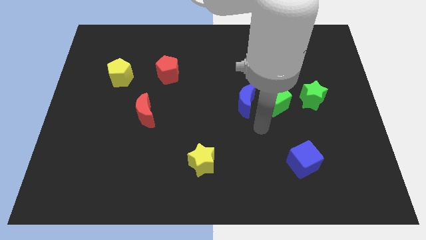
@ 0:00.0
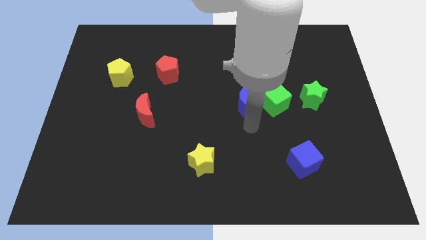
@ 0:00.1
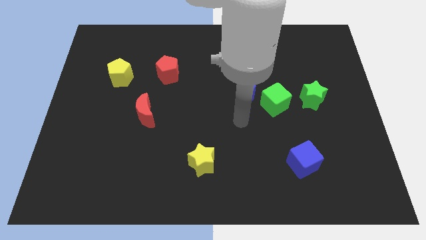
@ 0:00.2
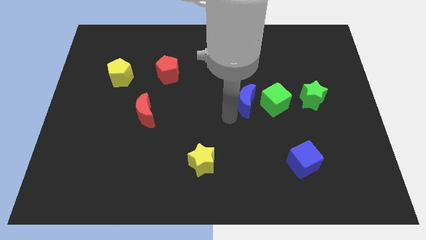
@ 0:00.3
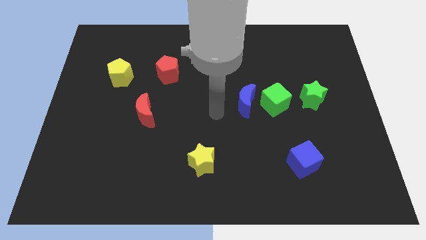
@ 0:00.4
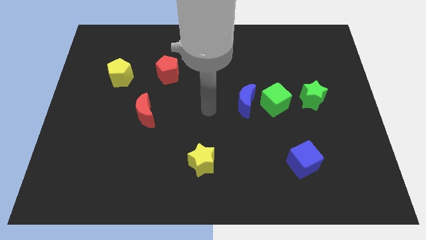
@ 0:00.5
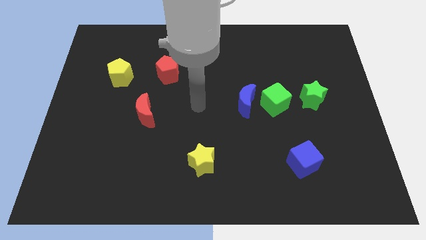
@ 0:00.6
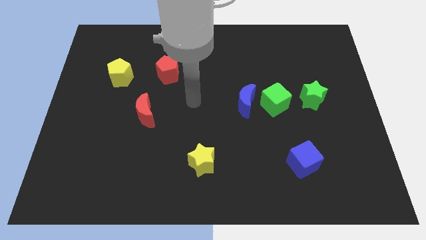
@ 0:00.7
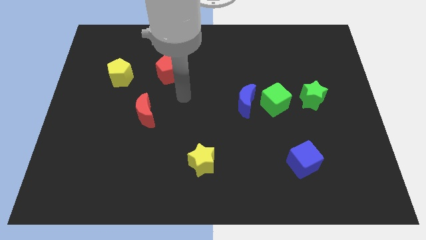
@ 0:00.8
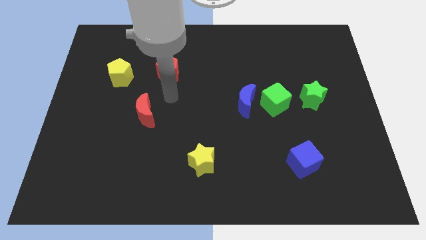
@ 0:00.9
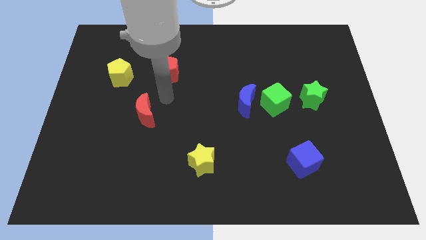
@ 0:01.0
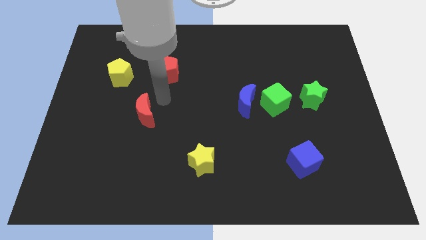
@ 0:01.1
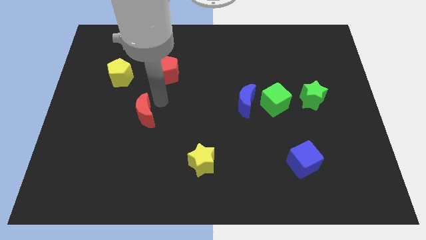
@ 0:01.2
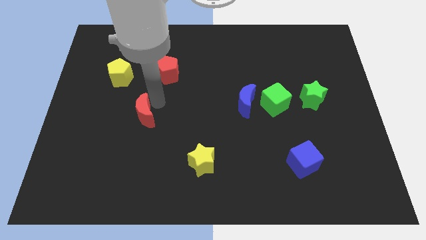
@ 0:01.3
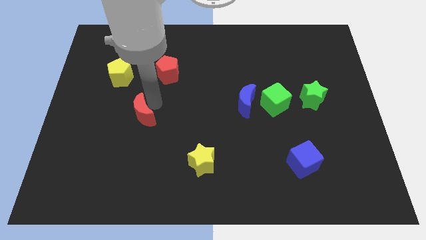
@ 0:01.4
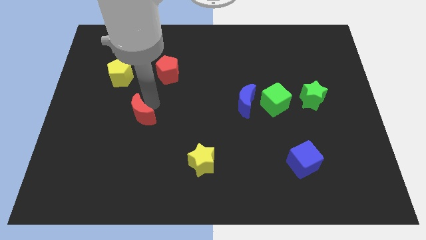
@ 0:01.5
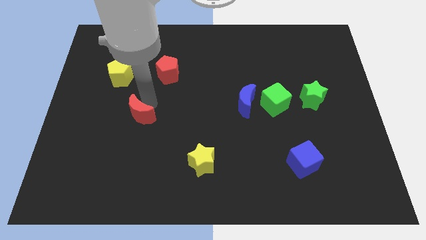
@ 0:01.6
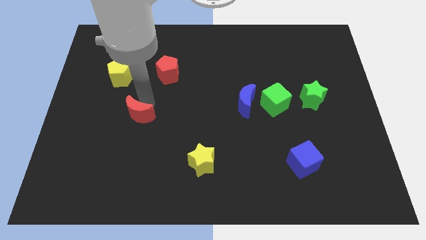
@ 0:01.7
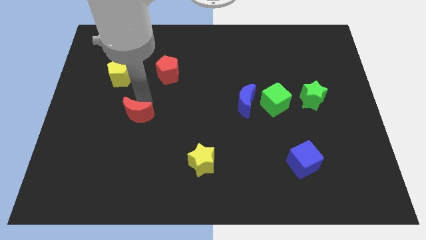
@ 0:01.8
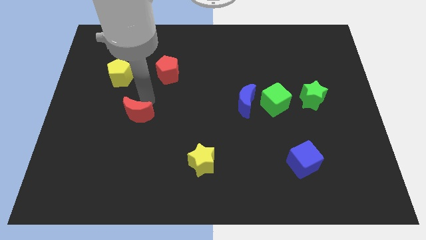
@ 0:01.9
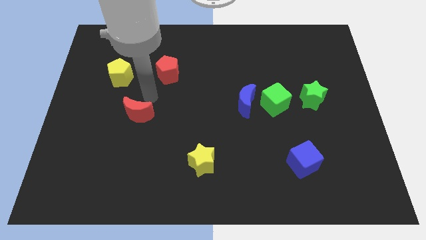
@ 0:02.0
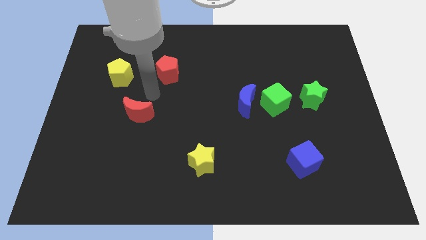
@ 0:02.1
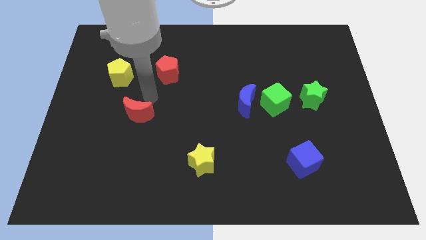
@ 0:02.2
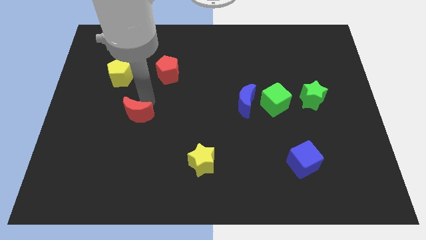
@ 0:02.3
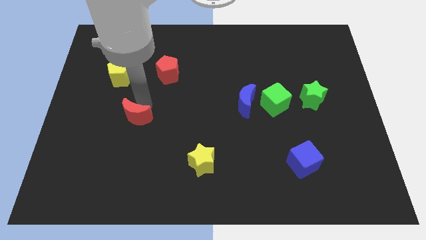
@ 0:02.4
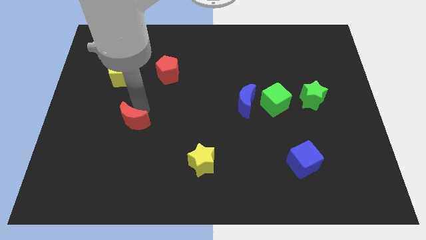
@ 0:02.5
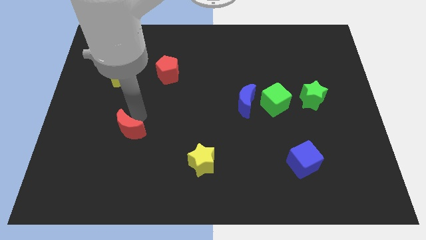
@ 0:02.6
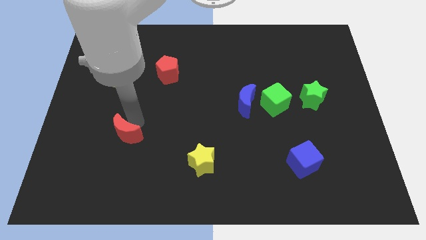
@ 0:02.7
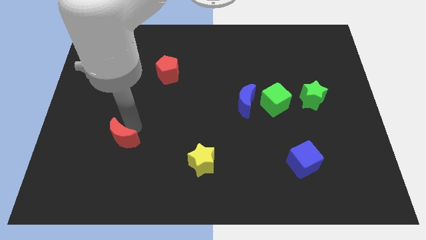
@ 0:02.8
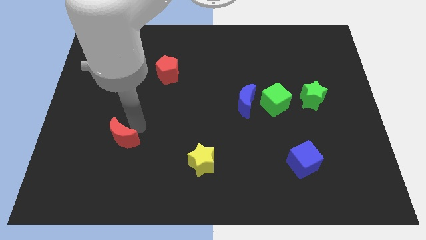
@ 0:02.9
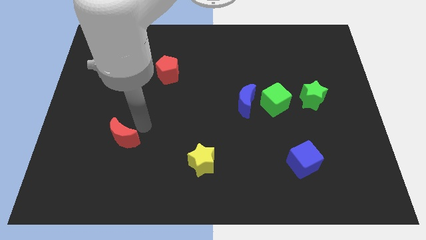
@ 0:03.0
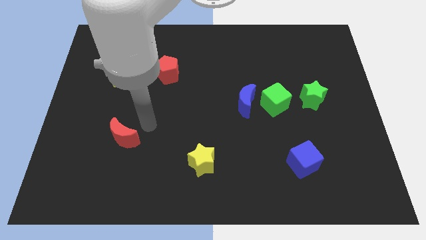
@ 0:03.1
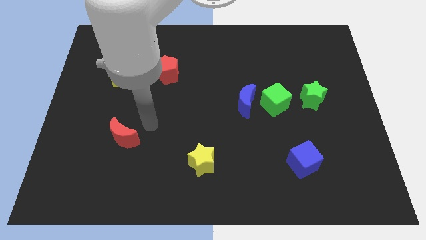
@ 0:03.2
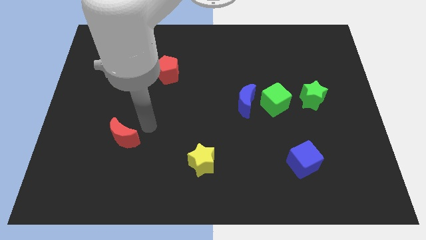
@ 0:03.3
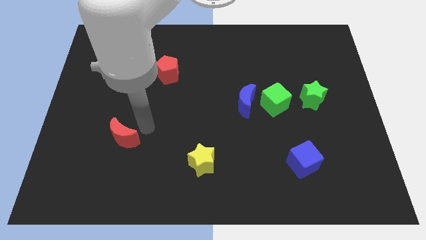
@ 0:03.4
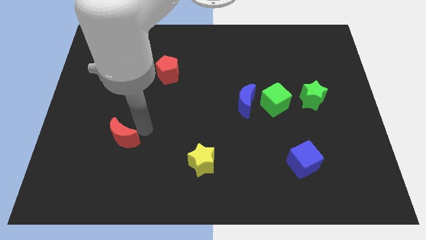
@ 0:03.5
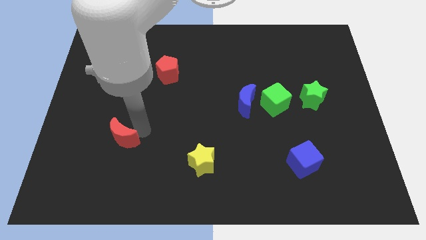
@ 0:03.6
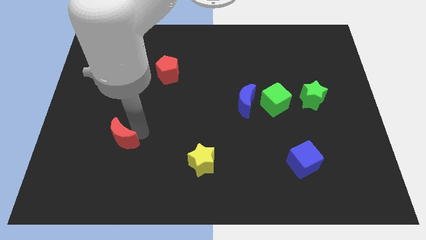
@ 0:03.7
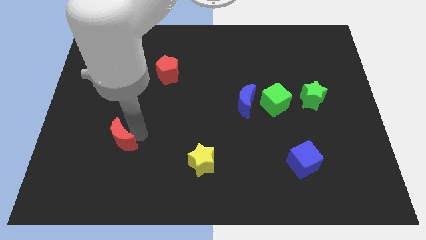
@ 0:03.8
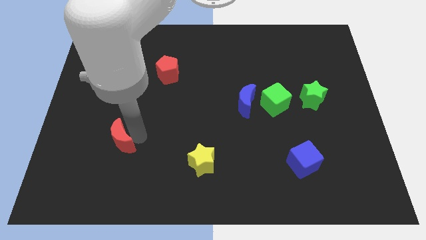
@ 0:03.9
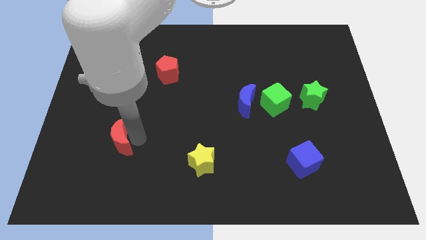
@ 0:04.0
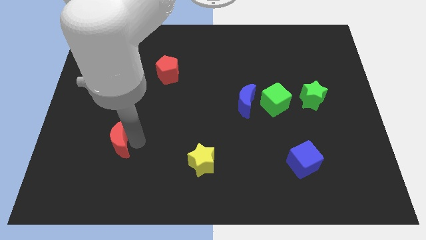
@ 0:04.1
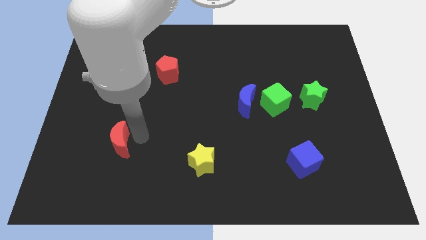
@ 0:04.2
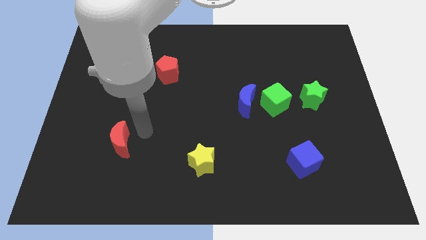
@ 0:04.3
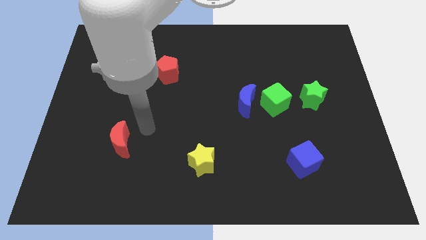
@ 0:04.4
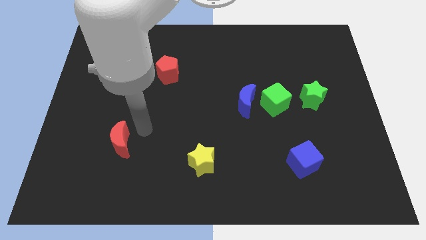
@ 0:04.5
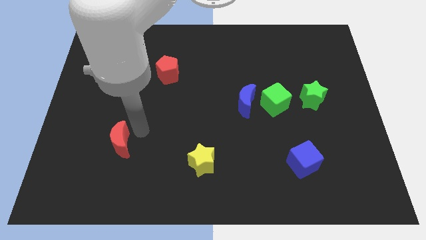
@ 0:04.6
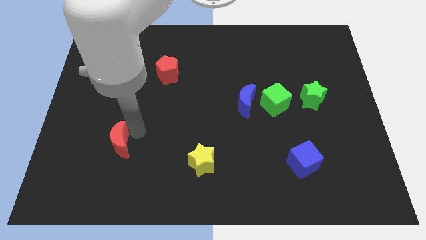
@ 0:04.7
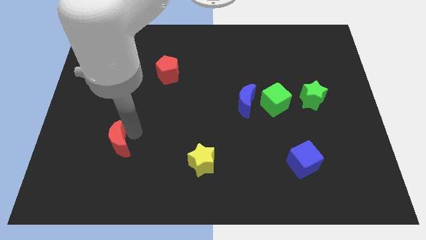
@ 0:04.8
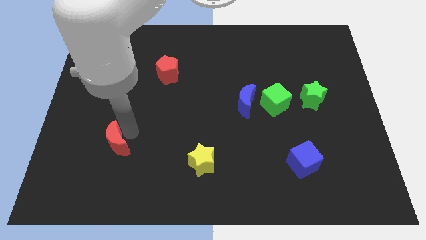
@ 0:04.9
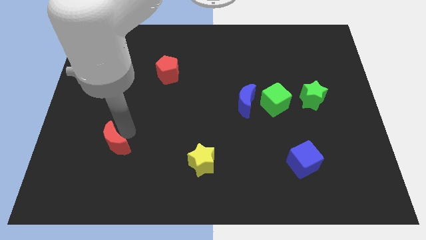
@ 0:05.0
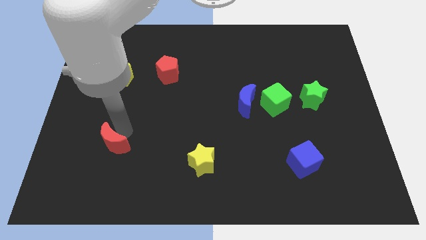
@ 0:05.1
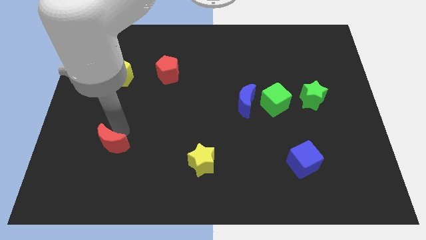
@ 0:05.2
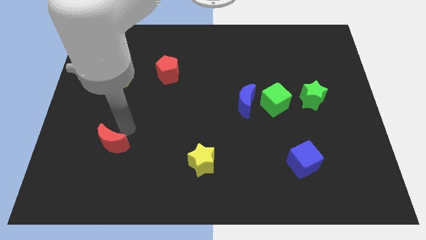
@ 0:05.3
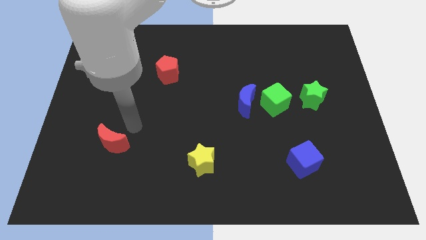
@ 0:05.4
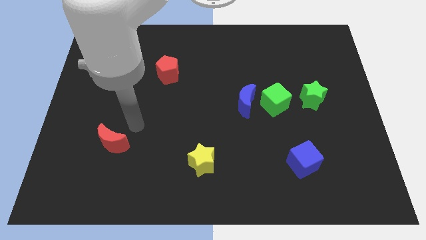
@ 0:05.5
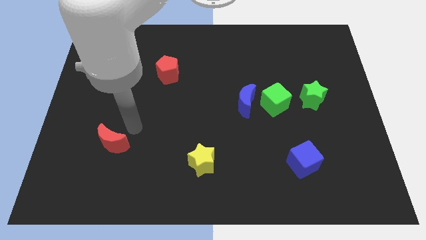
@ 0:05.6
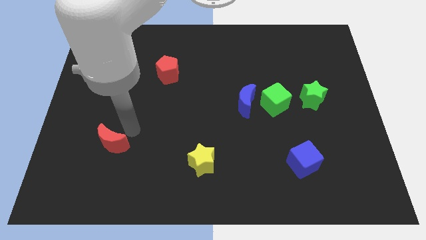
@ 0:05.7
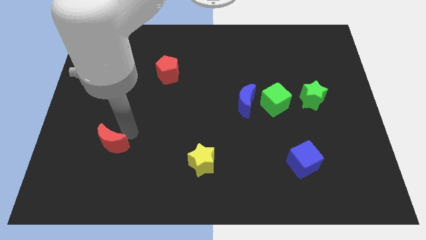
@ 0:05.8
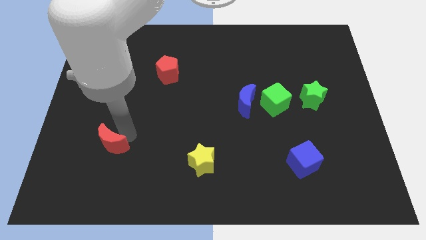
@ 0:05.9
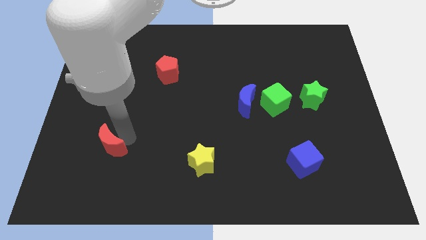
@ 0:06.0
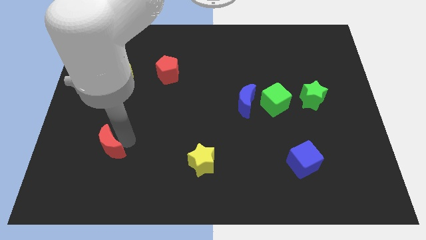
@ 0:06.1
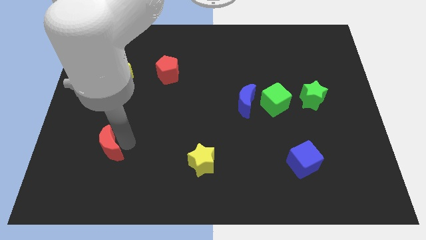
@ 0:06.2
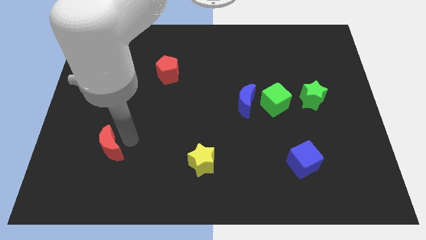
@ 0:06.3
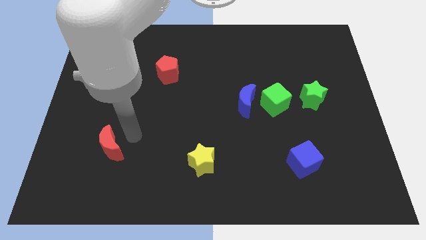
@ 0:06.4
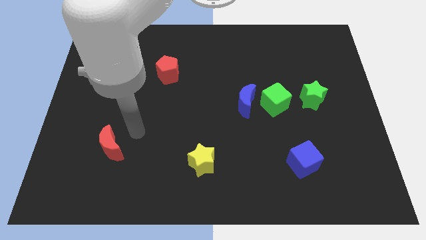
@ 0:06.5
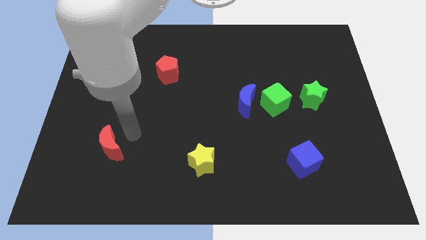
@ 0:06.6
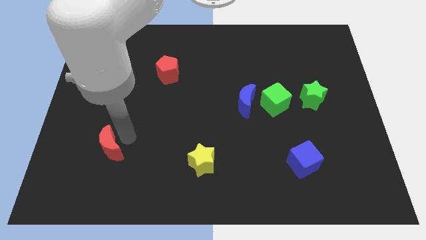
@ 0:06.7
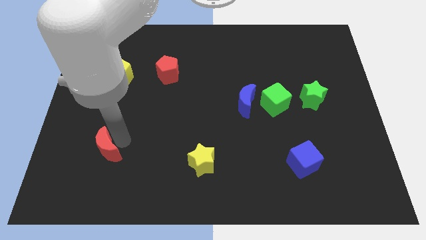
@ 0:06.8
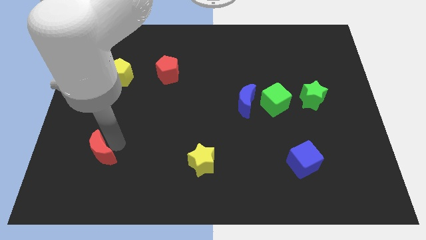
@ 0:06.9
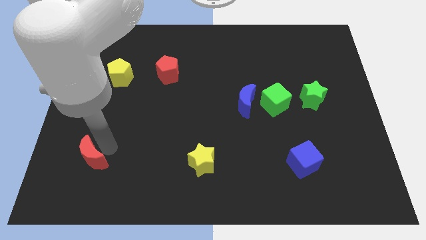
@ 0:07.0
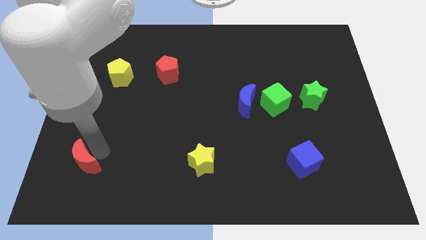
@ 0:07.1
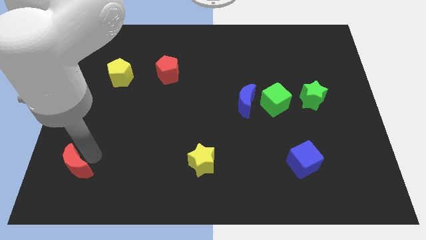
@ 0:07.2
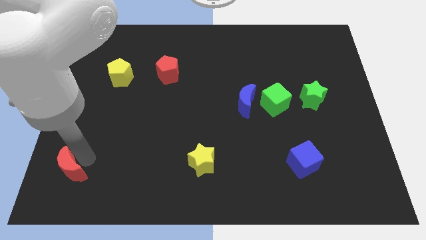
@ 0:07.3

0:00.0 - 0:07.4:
move the red moon to the bottom left corner

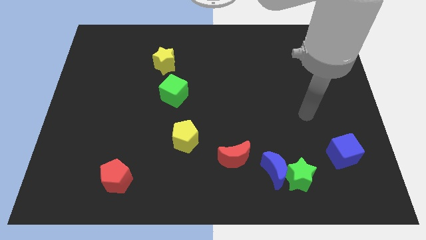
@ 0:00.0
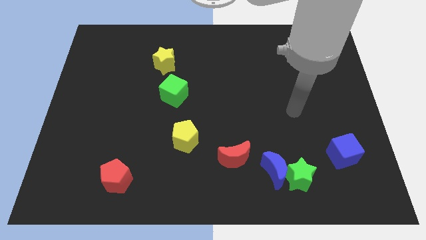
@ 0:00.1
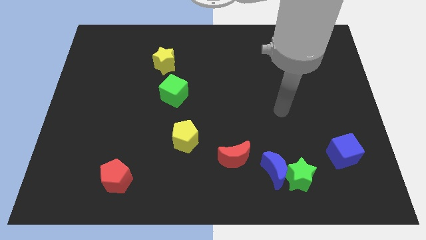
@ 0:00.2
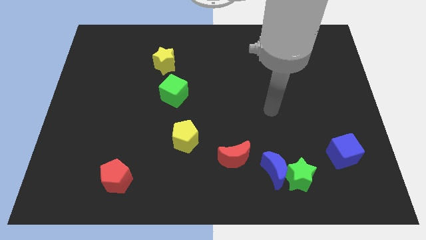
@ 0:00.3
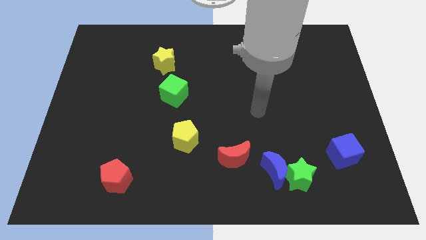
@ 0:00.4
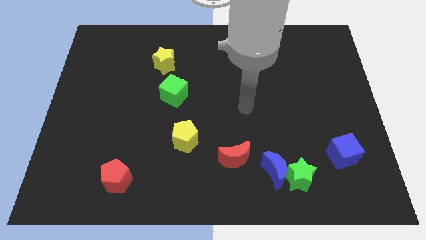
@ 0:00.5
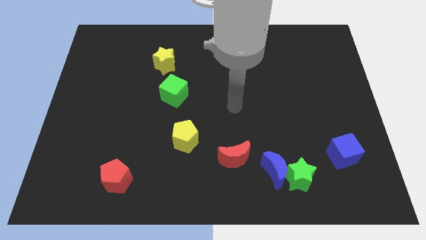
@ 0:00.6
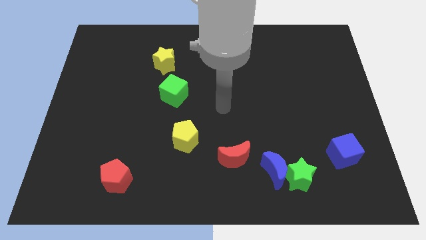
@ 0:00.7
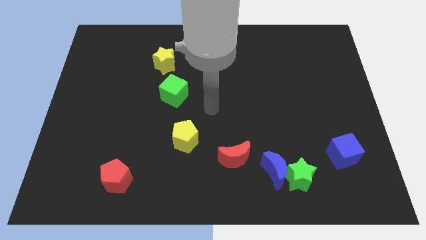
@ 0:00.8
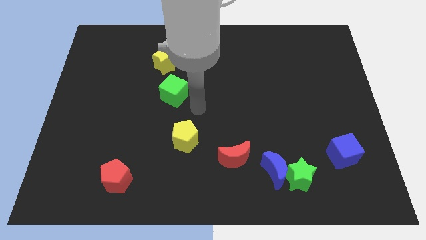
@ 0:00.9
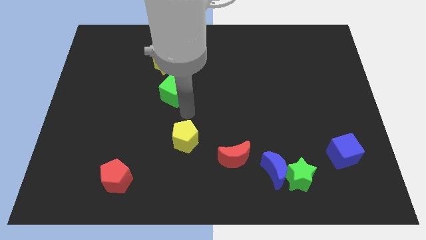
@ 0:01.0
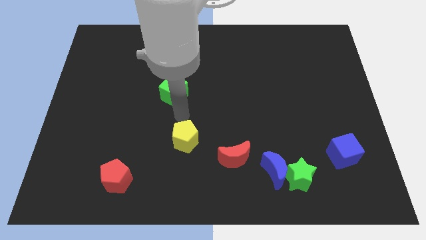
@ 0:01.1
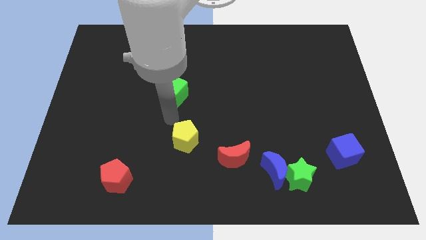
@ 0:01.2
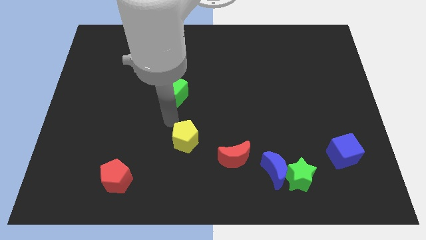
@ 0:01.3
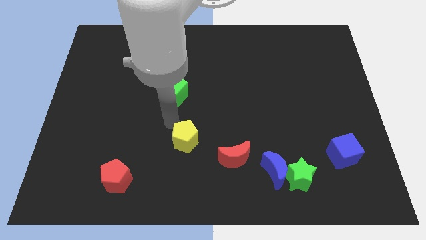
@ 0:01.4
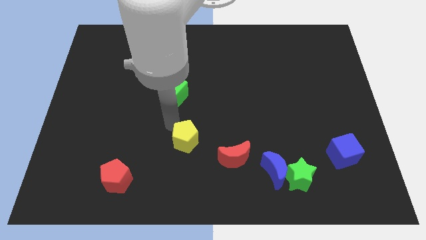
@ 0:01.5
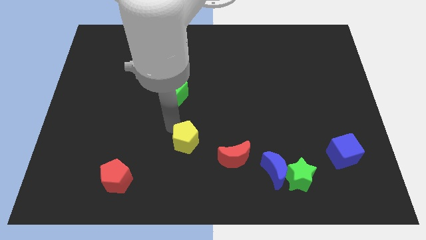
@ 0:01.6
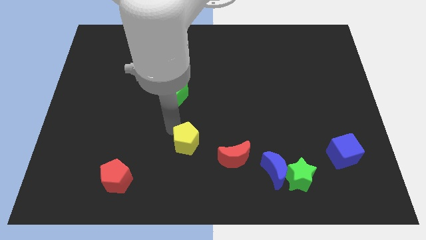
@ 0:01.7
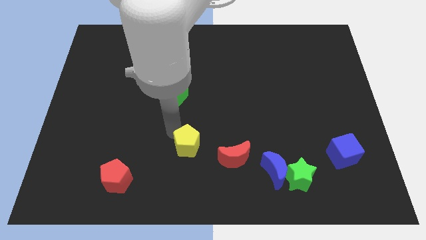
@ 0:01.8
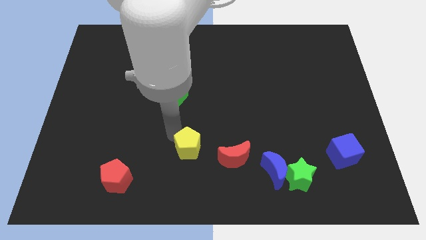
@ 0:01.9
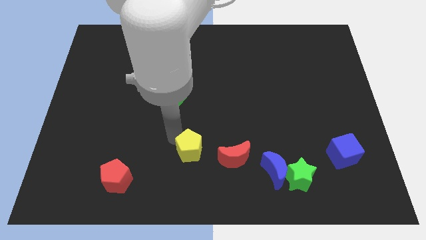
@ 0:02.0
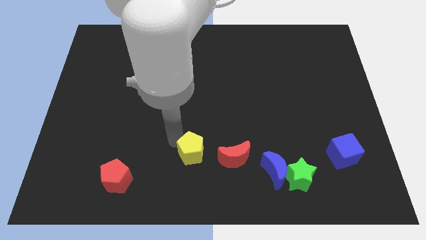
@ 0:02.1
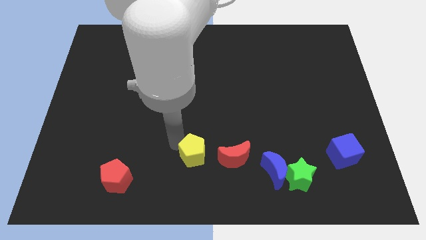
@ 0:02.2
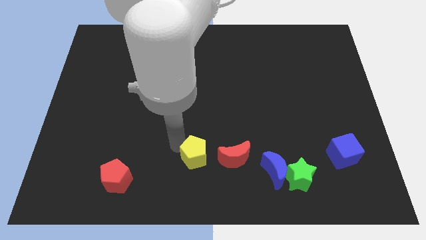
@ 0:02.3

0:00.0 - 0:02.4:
move the yellow pentagon to the bottom side
